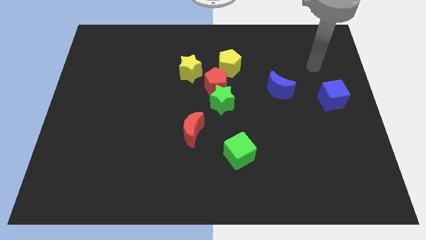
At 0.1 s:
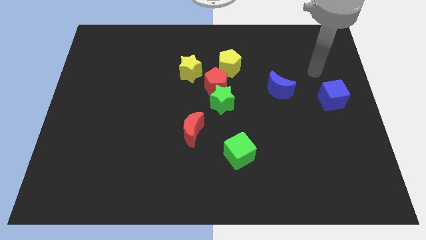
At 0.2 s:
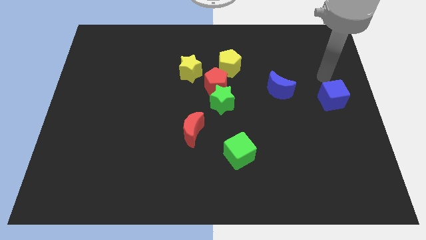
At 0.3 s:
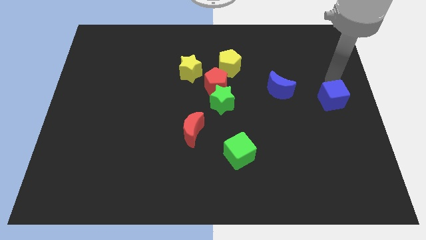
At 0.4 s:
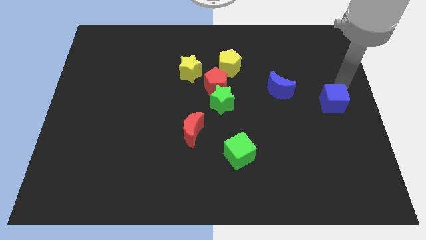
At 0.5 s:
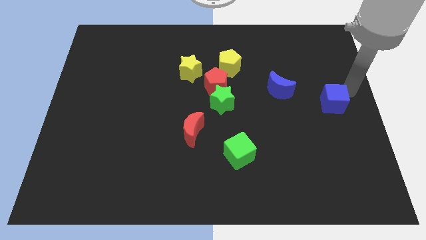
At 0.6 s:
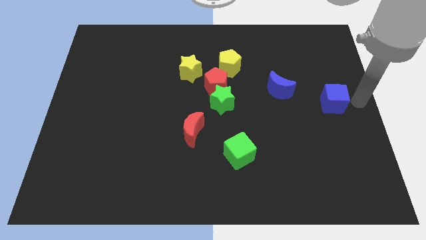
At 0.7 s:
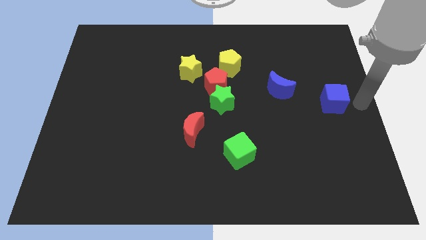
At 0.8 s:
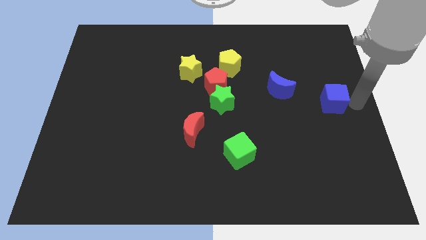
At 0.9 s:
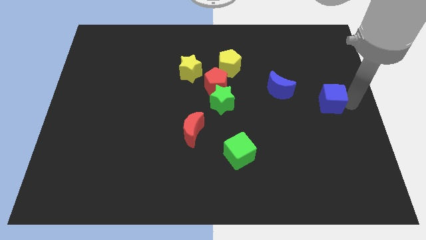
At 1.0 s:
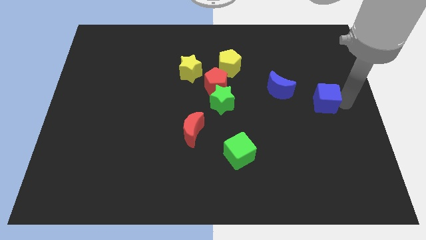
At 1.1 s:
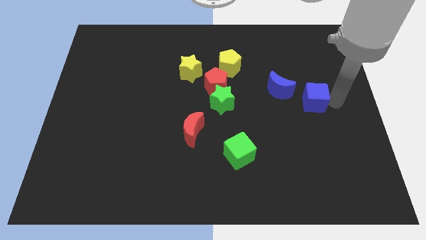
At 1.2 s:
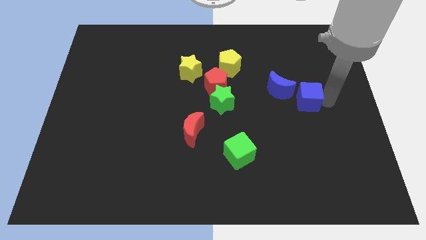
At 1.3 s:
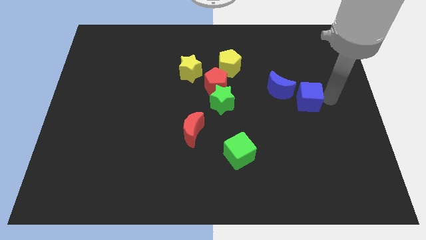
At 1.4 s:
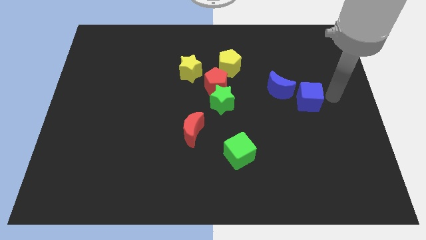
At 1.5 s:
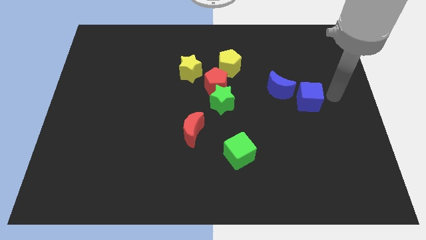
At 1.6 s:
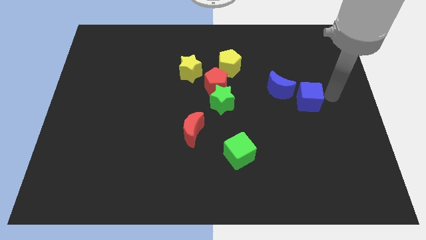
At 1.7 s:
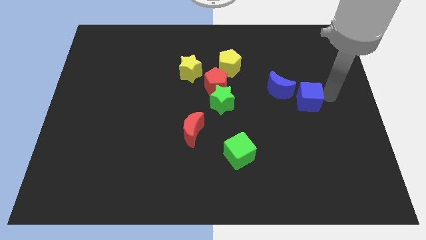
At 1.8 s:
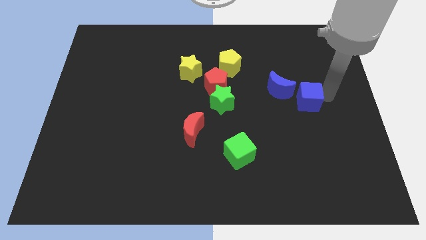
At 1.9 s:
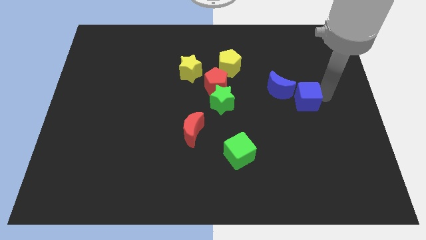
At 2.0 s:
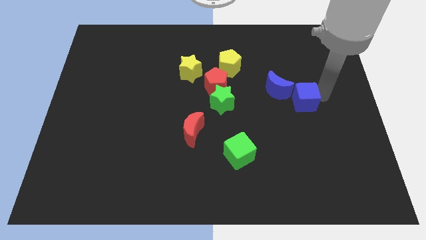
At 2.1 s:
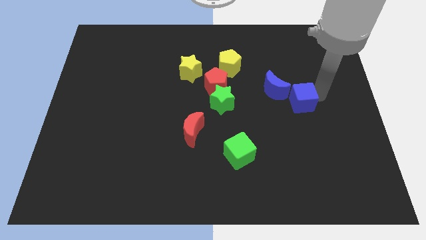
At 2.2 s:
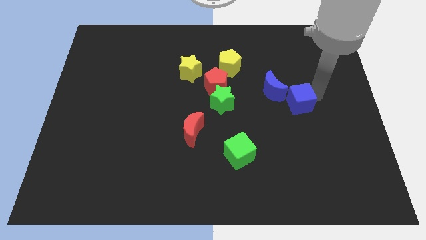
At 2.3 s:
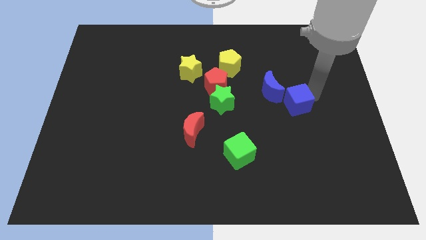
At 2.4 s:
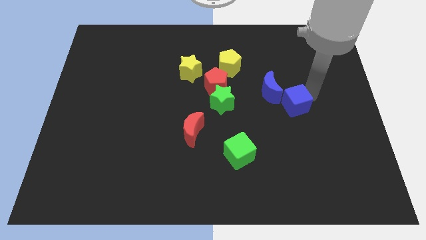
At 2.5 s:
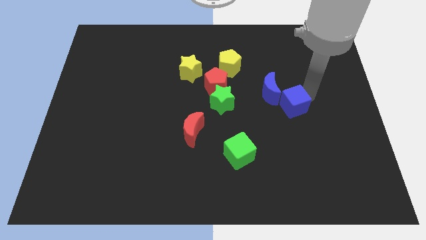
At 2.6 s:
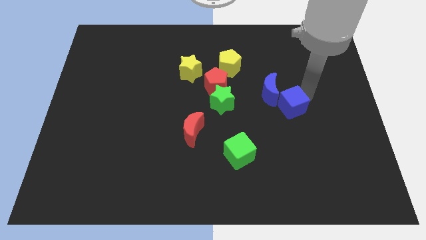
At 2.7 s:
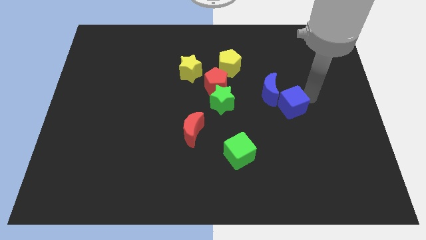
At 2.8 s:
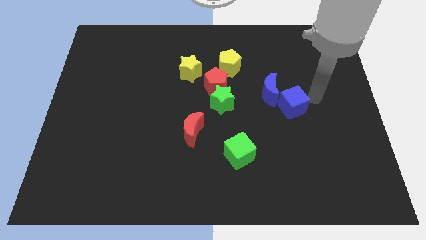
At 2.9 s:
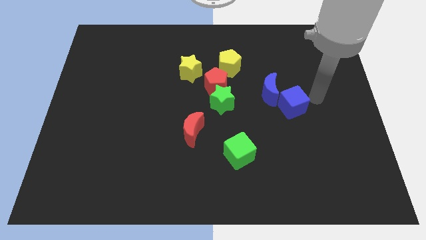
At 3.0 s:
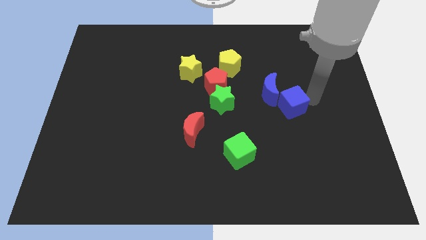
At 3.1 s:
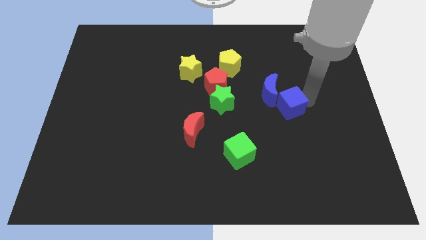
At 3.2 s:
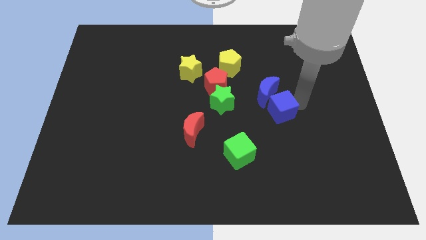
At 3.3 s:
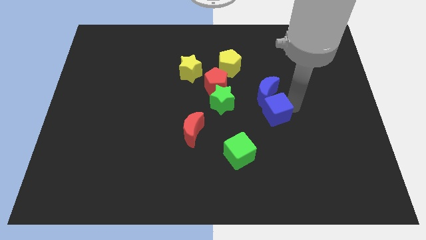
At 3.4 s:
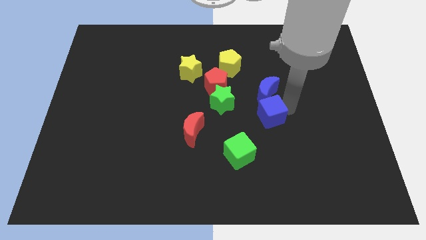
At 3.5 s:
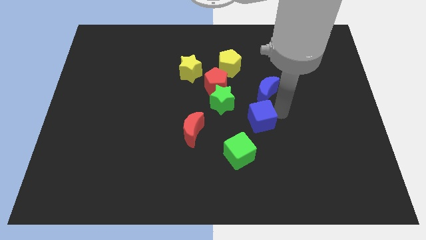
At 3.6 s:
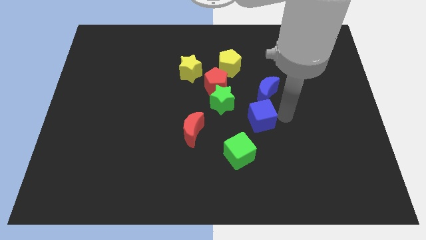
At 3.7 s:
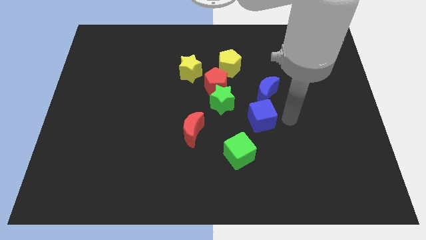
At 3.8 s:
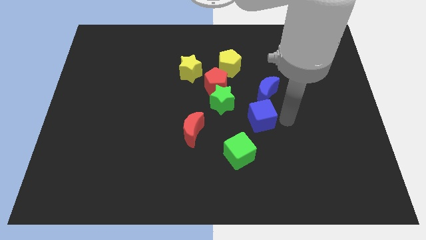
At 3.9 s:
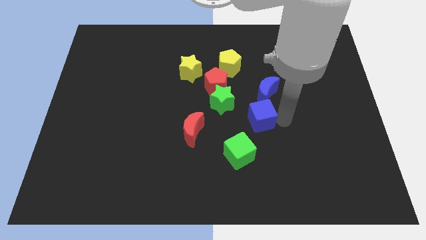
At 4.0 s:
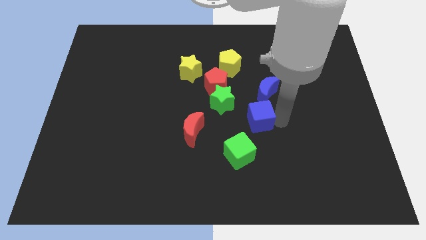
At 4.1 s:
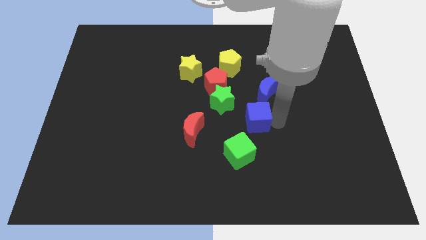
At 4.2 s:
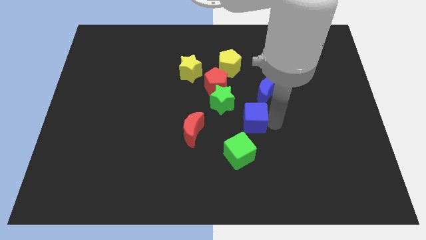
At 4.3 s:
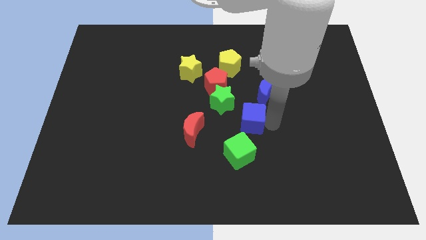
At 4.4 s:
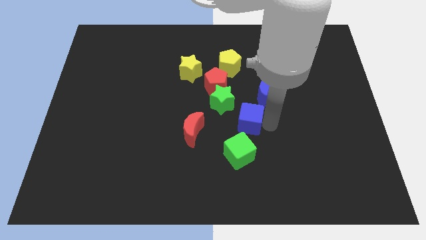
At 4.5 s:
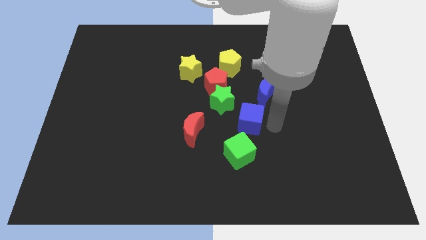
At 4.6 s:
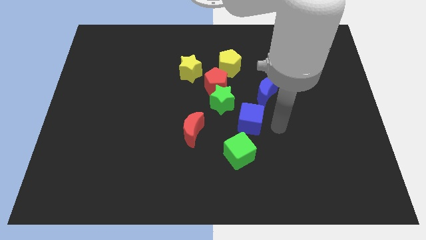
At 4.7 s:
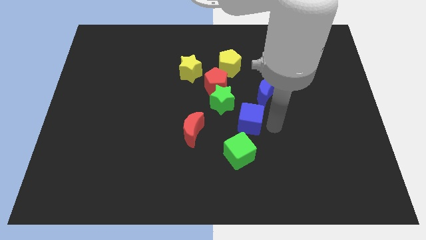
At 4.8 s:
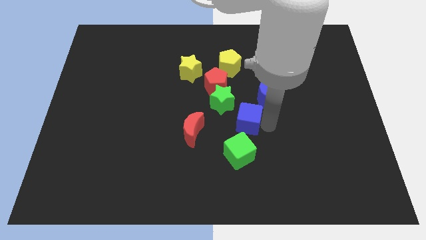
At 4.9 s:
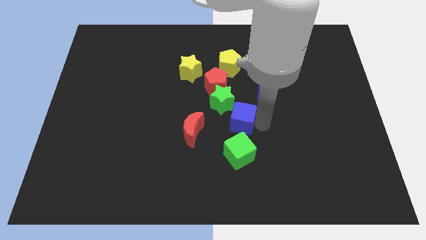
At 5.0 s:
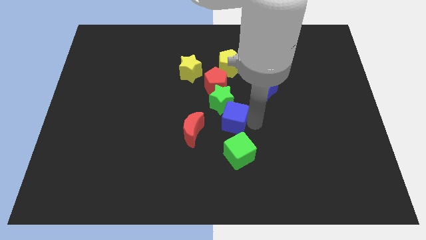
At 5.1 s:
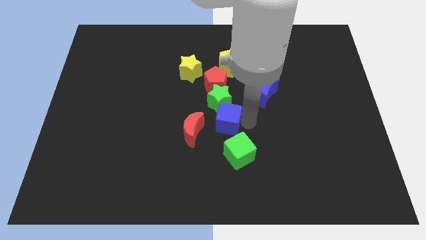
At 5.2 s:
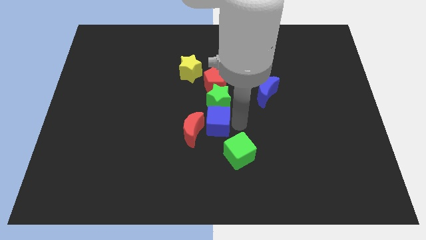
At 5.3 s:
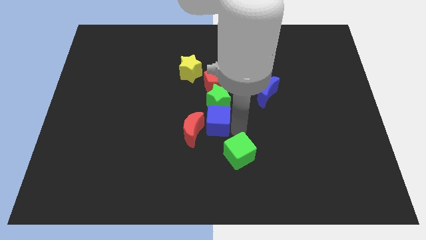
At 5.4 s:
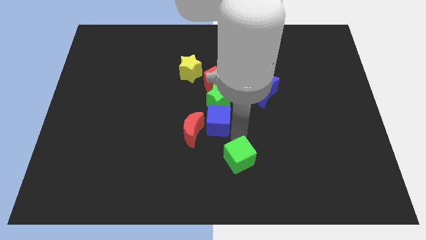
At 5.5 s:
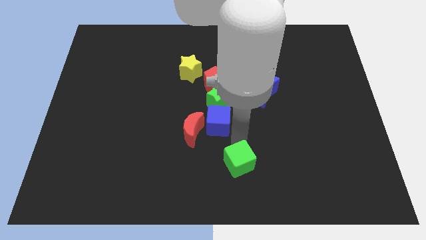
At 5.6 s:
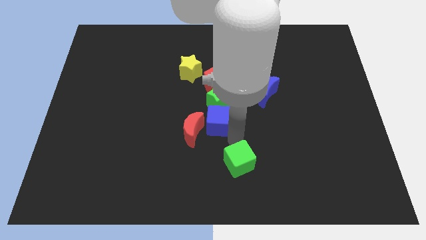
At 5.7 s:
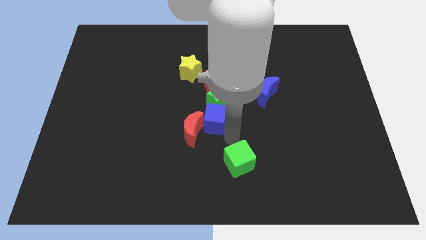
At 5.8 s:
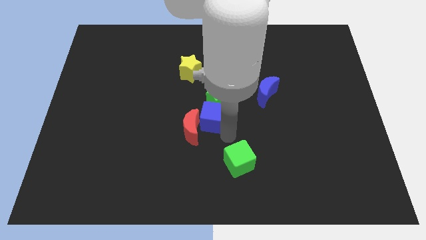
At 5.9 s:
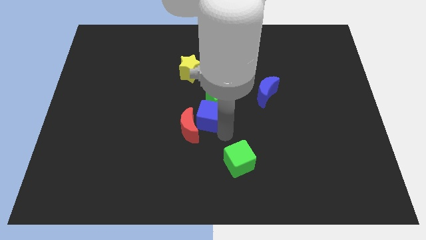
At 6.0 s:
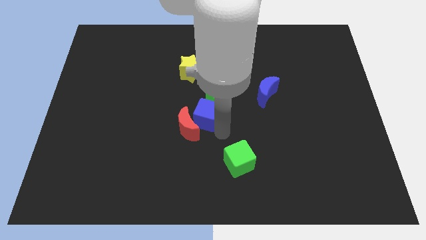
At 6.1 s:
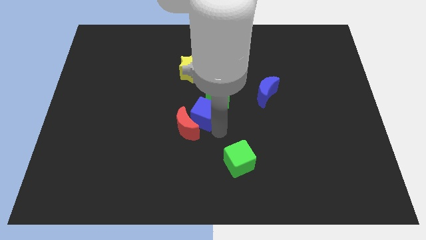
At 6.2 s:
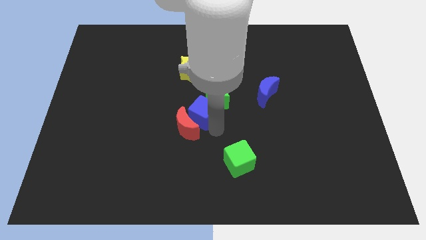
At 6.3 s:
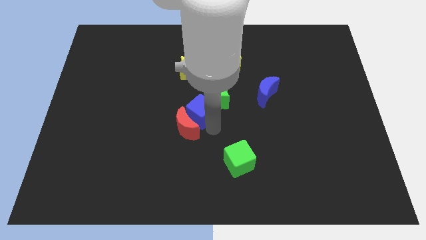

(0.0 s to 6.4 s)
push the blue cube diagonally down and to the left of the red pentagon

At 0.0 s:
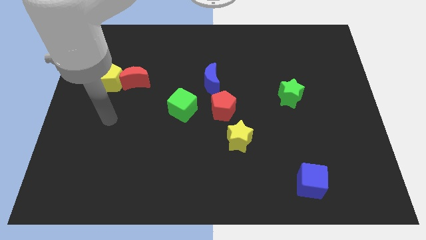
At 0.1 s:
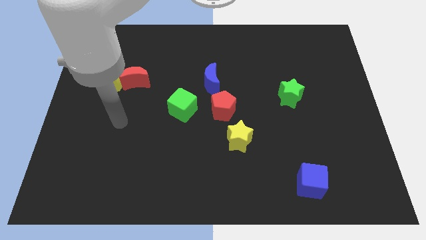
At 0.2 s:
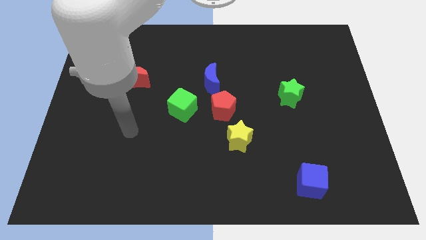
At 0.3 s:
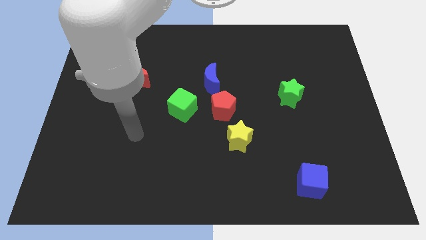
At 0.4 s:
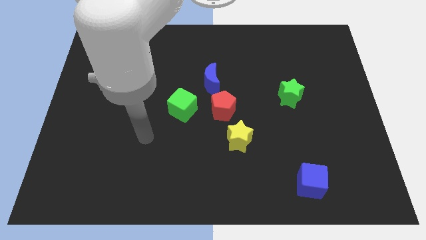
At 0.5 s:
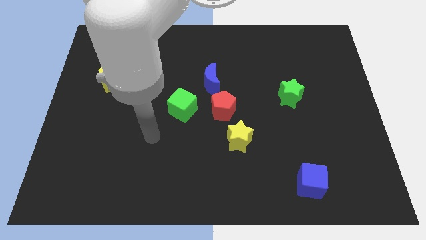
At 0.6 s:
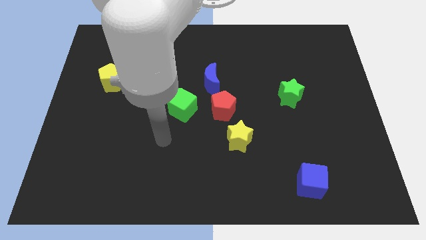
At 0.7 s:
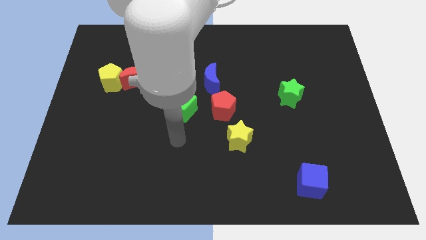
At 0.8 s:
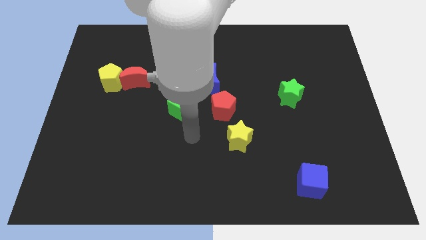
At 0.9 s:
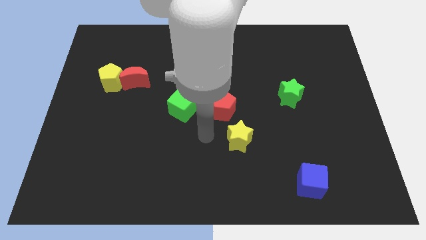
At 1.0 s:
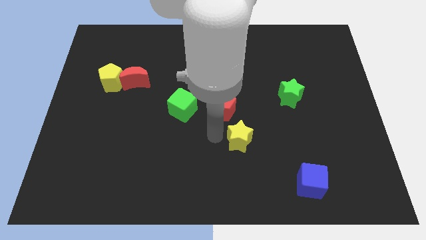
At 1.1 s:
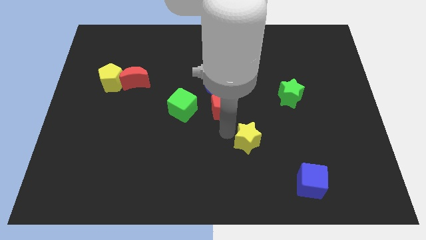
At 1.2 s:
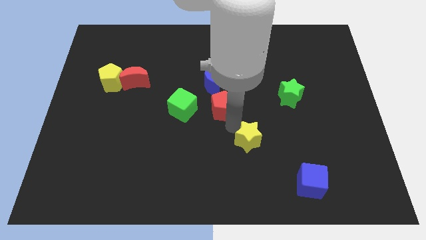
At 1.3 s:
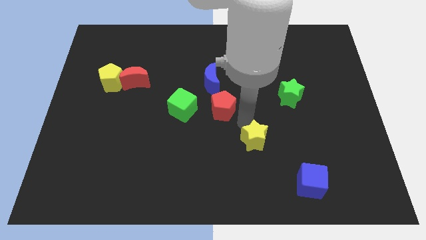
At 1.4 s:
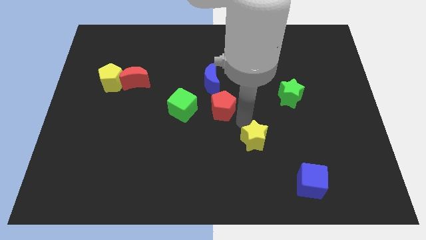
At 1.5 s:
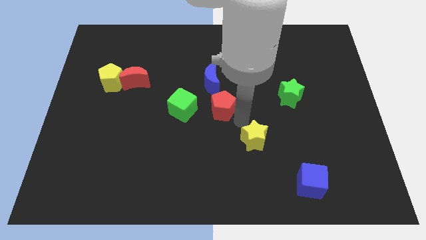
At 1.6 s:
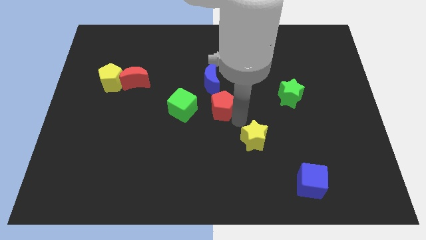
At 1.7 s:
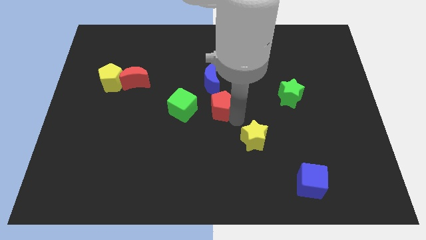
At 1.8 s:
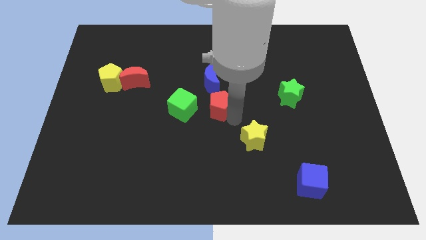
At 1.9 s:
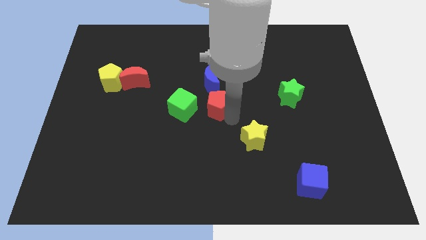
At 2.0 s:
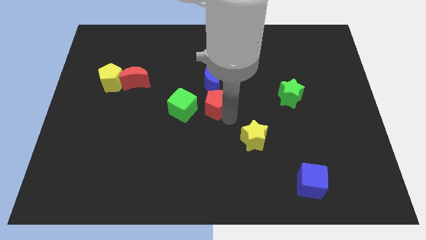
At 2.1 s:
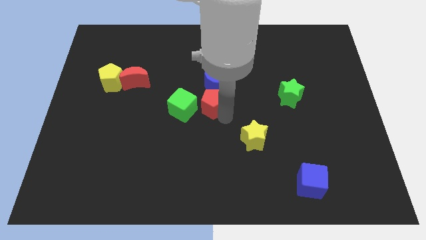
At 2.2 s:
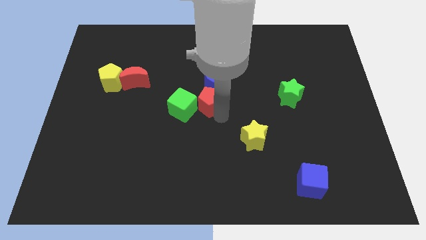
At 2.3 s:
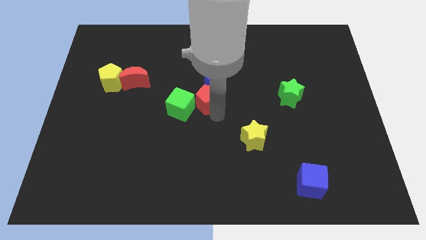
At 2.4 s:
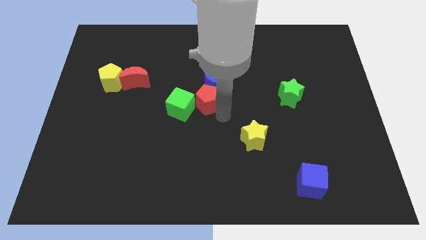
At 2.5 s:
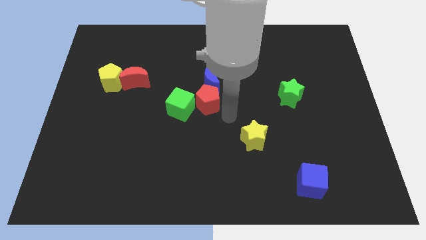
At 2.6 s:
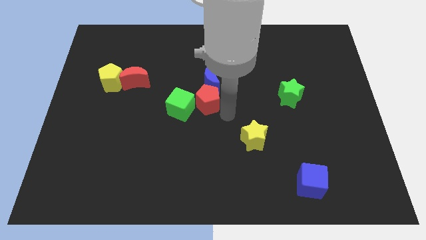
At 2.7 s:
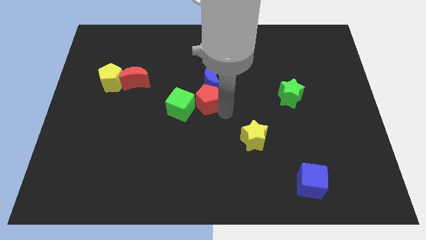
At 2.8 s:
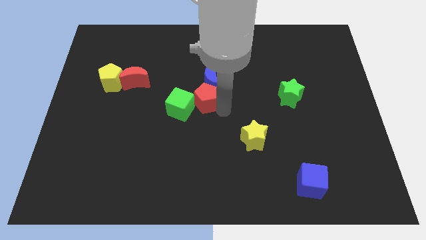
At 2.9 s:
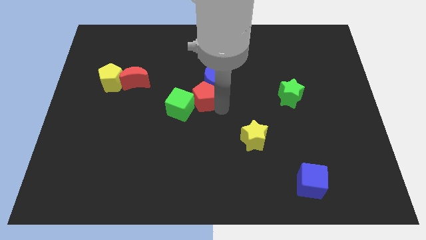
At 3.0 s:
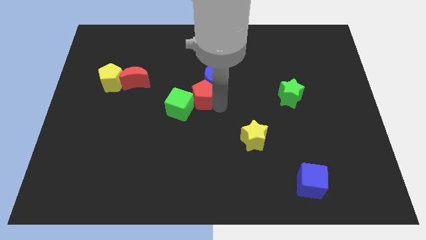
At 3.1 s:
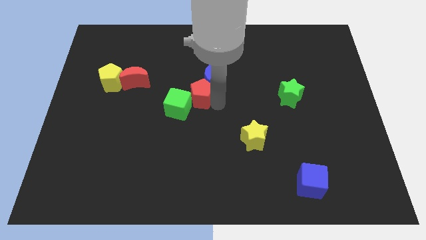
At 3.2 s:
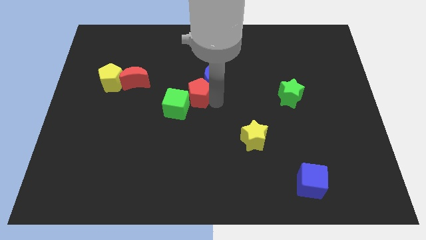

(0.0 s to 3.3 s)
put the red pentagon just left of the blue moon
